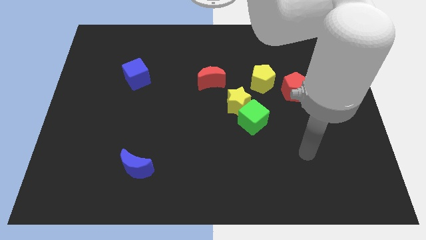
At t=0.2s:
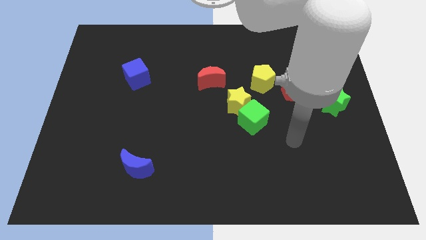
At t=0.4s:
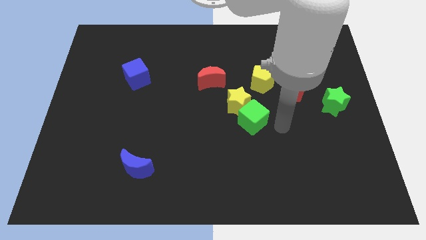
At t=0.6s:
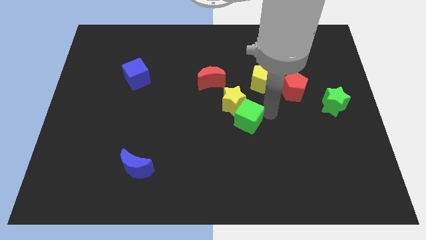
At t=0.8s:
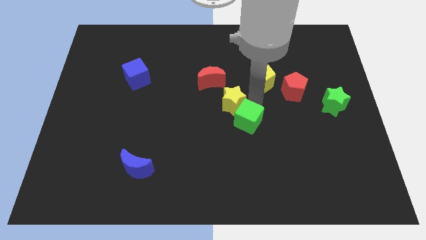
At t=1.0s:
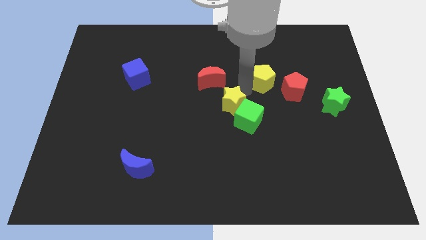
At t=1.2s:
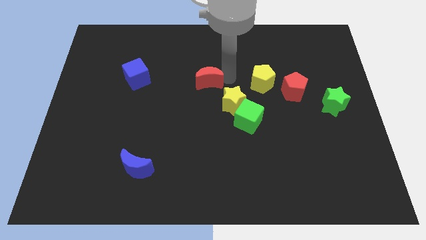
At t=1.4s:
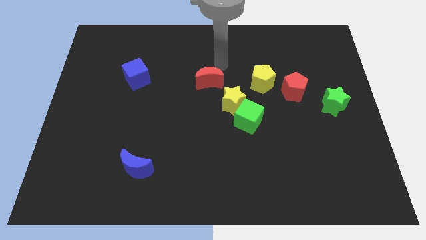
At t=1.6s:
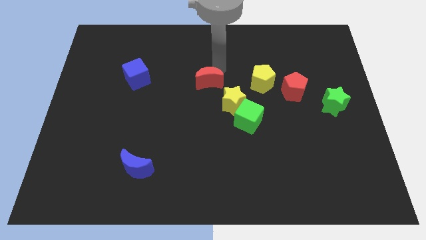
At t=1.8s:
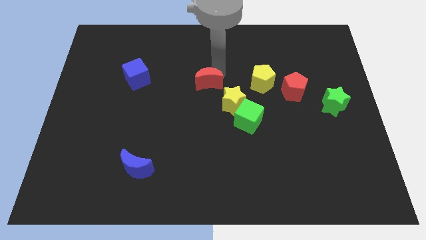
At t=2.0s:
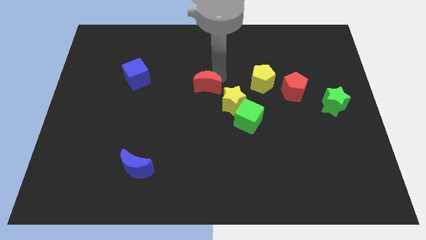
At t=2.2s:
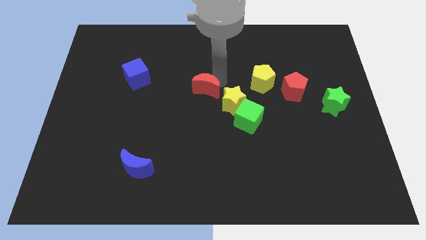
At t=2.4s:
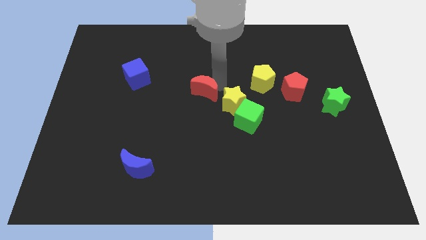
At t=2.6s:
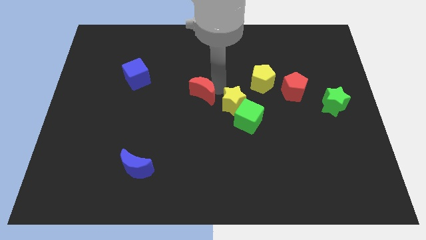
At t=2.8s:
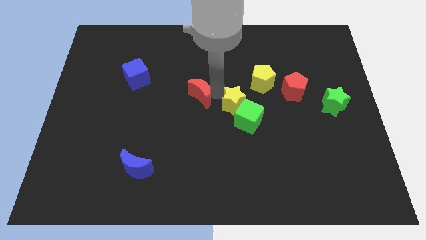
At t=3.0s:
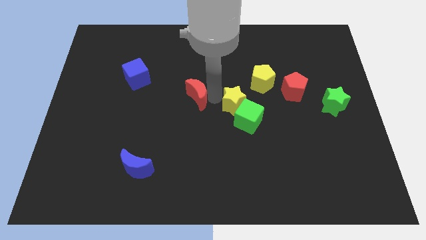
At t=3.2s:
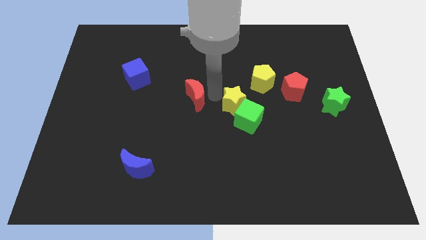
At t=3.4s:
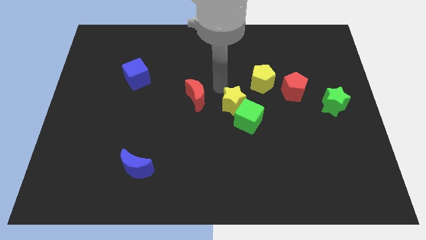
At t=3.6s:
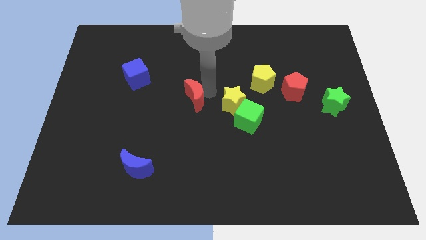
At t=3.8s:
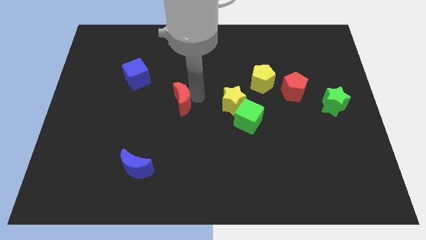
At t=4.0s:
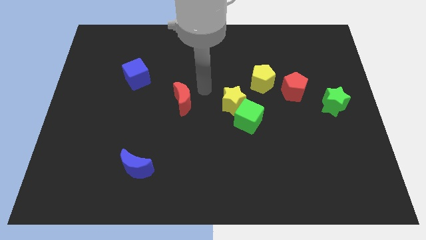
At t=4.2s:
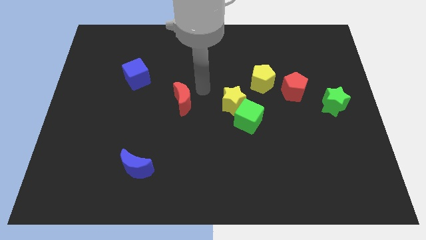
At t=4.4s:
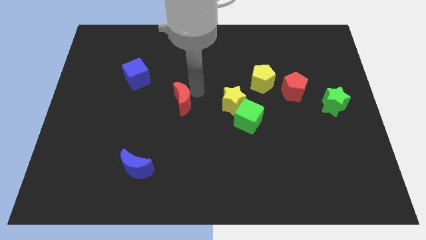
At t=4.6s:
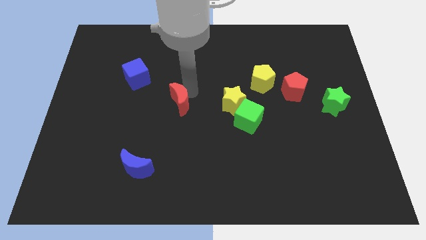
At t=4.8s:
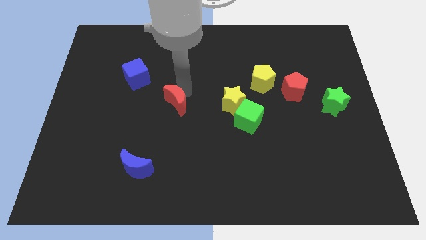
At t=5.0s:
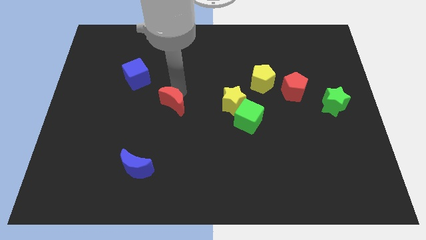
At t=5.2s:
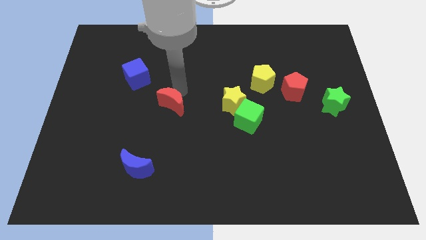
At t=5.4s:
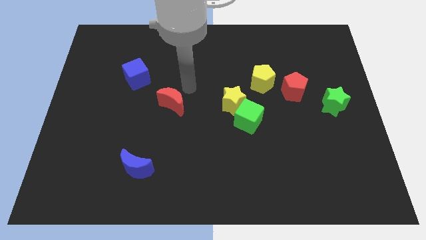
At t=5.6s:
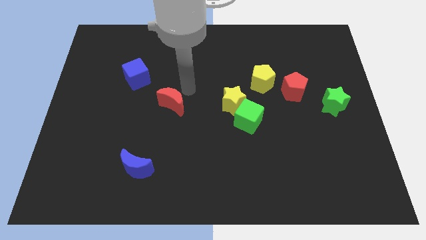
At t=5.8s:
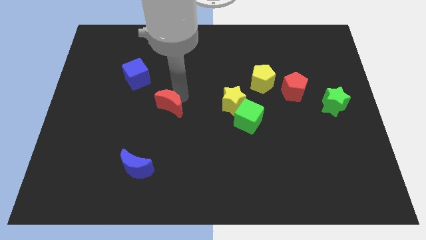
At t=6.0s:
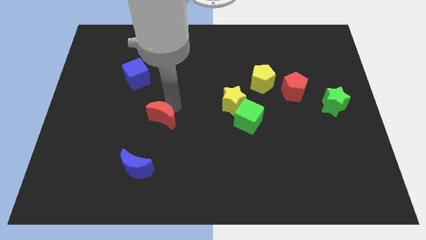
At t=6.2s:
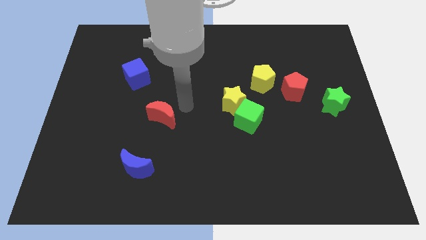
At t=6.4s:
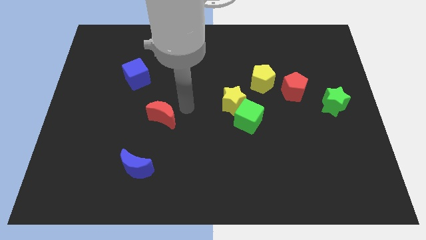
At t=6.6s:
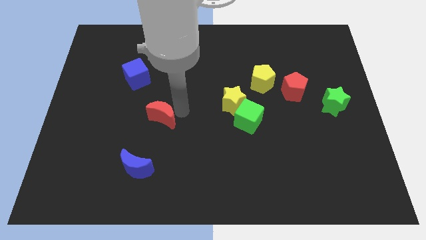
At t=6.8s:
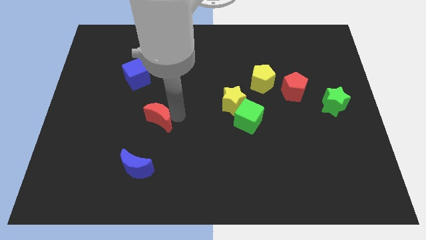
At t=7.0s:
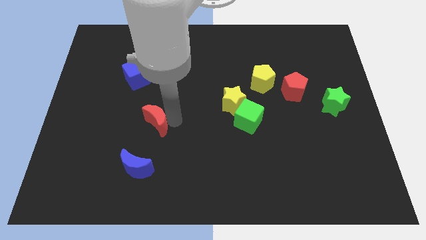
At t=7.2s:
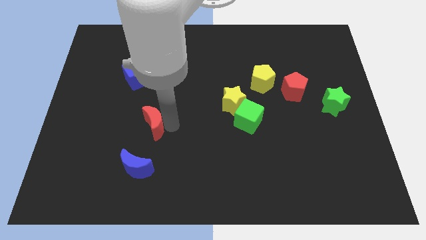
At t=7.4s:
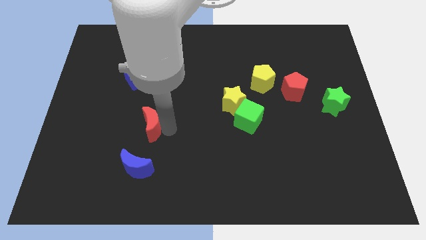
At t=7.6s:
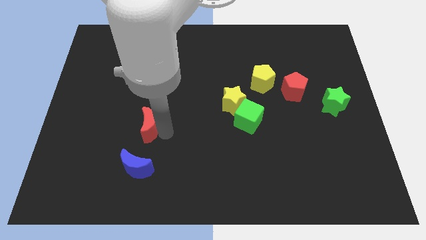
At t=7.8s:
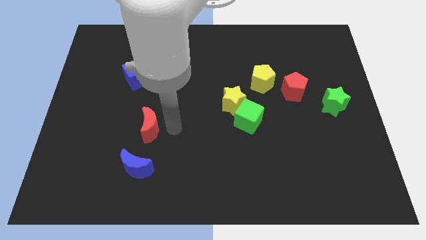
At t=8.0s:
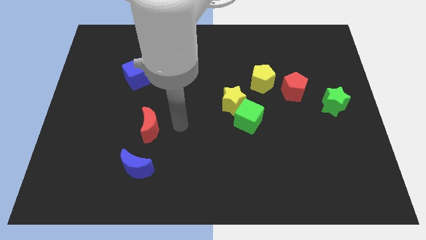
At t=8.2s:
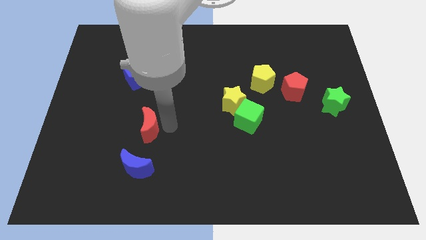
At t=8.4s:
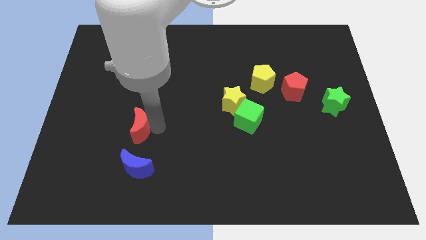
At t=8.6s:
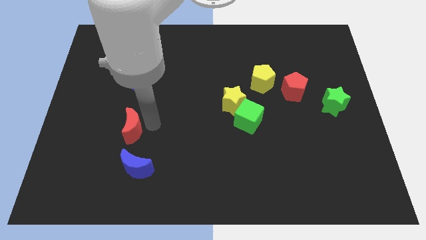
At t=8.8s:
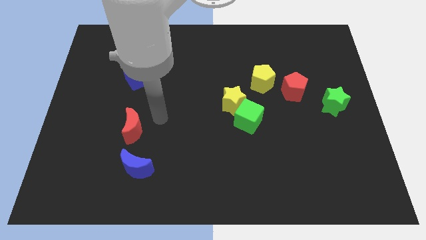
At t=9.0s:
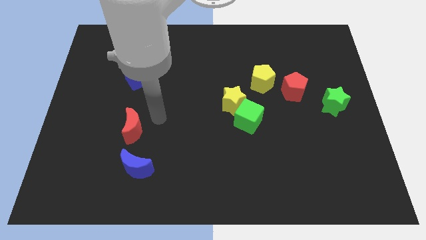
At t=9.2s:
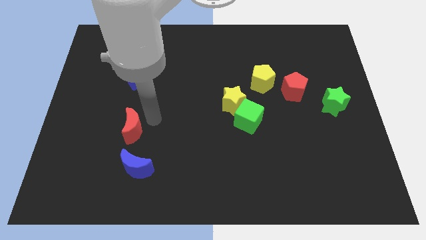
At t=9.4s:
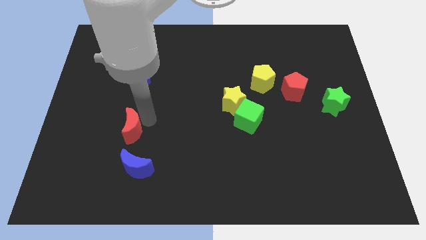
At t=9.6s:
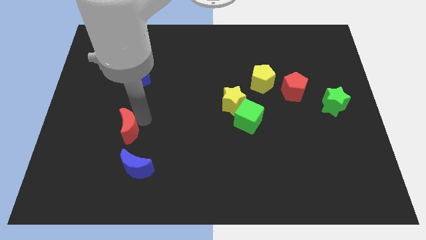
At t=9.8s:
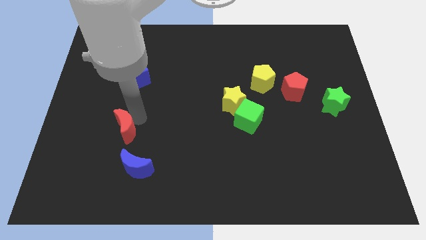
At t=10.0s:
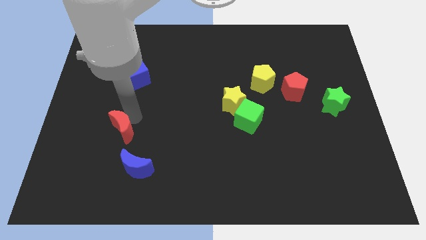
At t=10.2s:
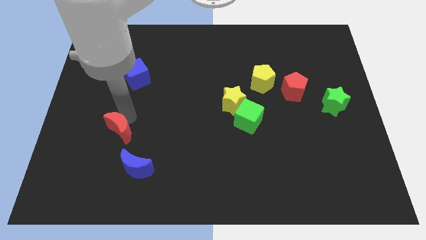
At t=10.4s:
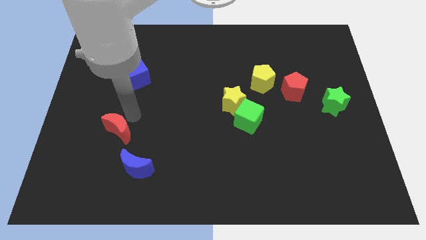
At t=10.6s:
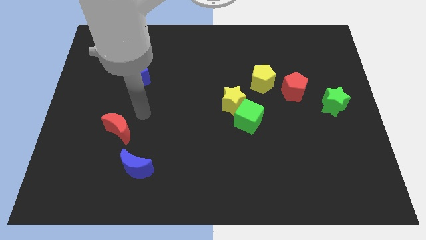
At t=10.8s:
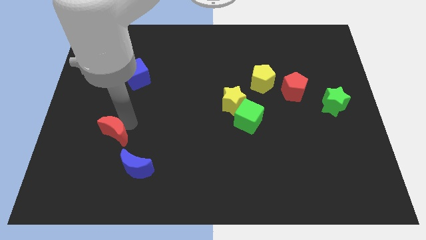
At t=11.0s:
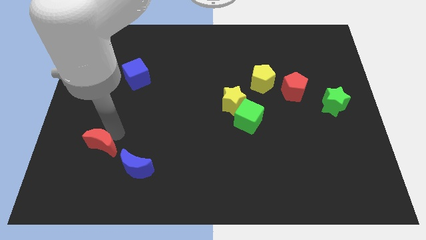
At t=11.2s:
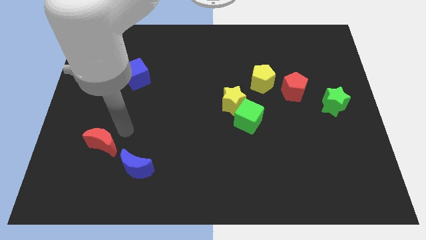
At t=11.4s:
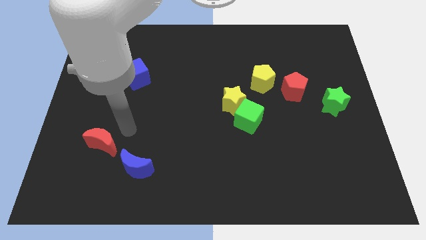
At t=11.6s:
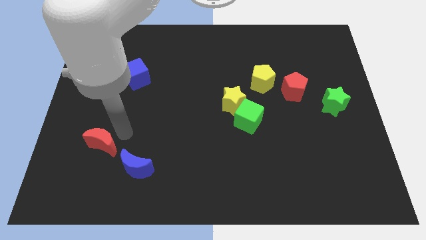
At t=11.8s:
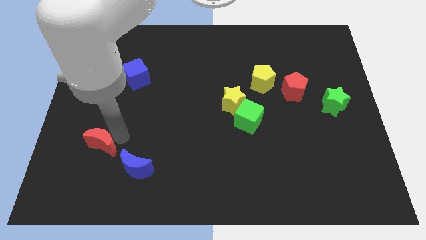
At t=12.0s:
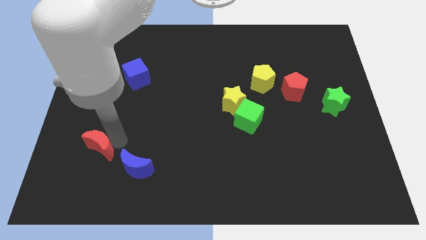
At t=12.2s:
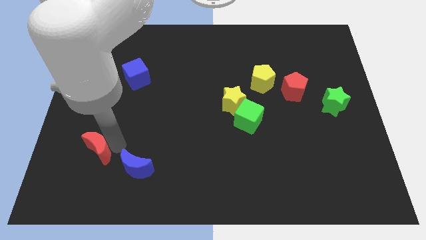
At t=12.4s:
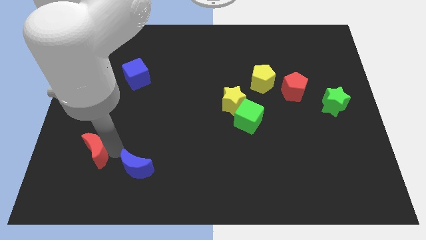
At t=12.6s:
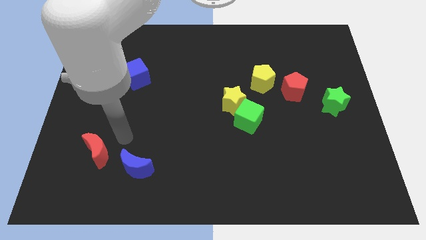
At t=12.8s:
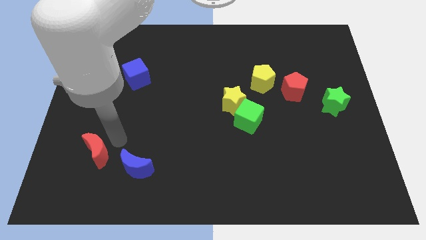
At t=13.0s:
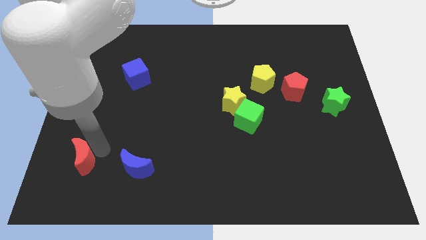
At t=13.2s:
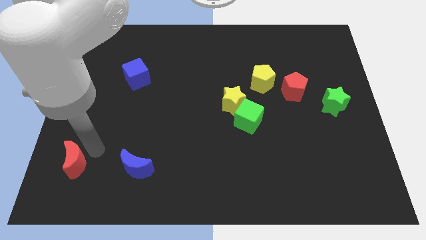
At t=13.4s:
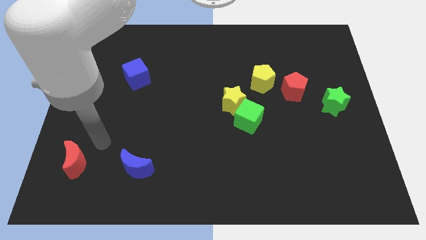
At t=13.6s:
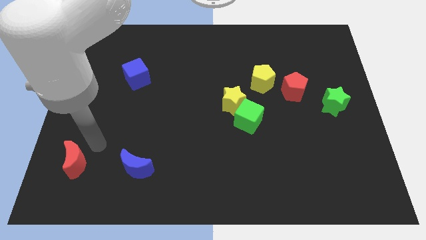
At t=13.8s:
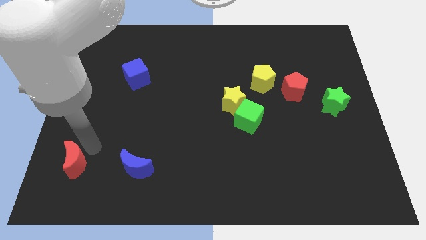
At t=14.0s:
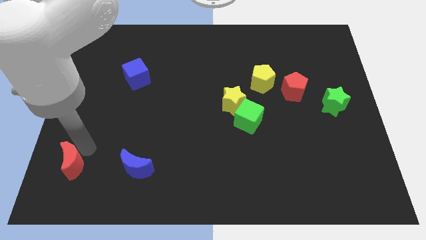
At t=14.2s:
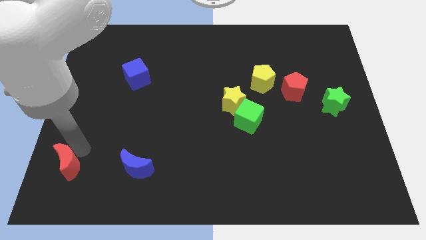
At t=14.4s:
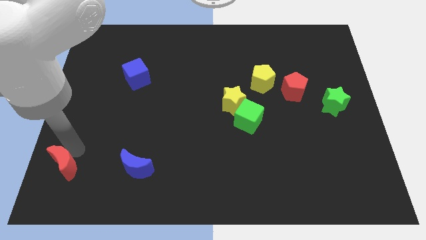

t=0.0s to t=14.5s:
slide the red moon to the lower left corner

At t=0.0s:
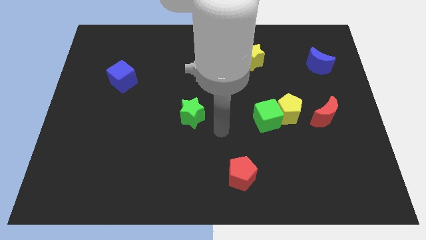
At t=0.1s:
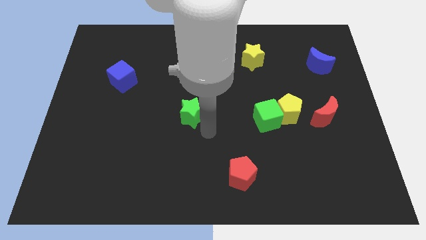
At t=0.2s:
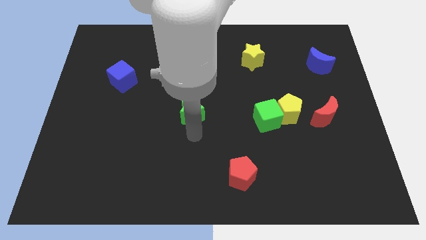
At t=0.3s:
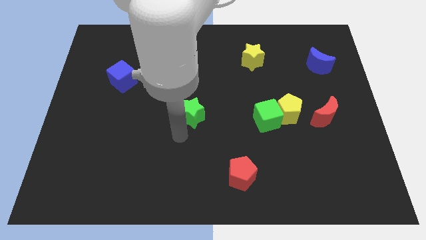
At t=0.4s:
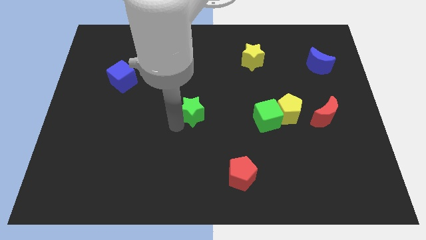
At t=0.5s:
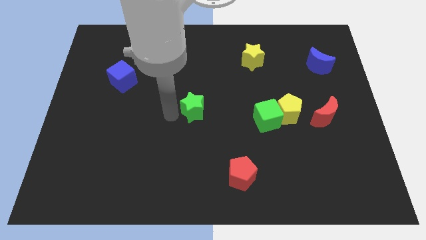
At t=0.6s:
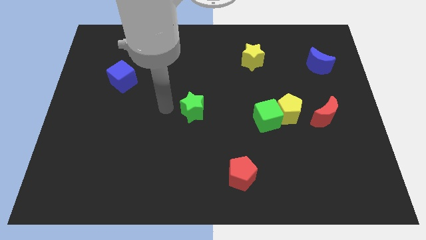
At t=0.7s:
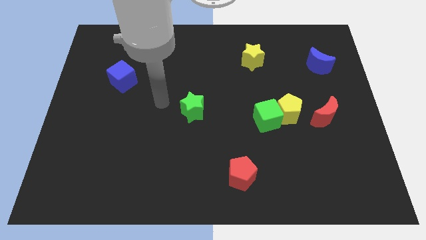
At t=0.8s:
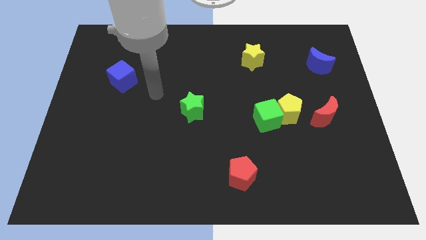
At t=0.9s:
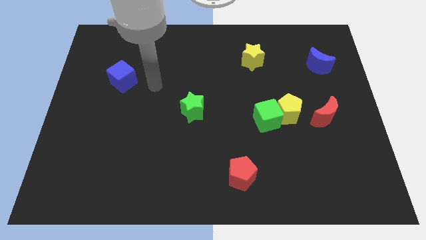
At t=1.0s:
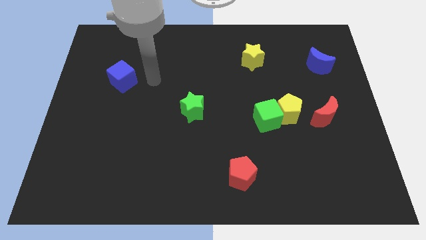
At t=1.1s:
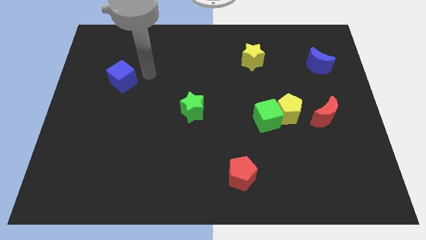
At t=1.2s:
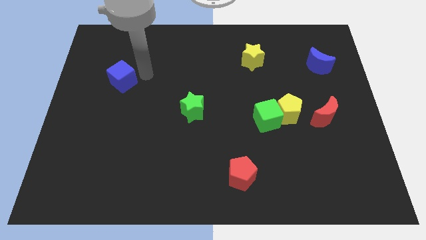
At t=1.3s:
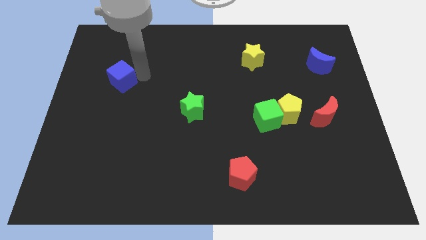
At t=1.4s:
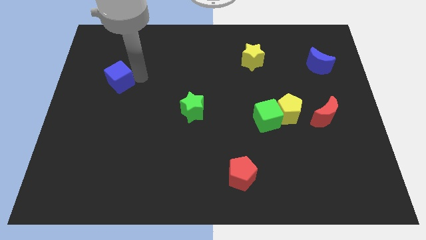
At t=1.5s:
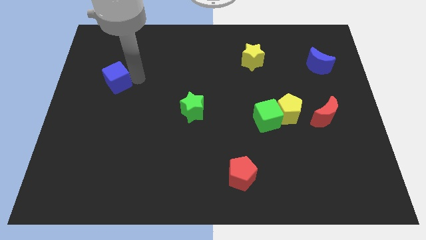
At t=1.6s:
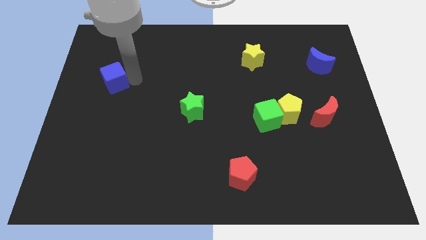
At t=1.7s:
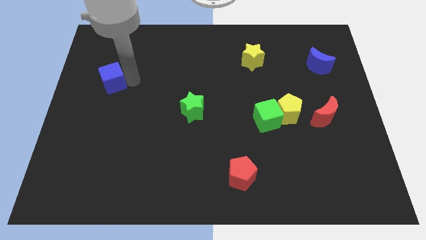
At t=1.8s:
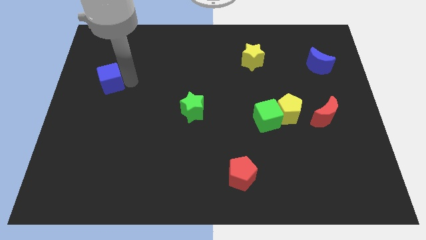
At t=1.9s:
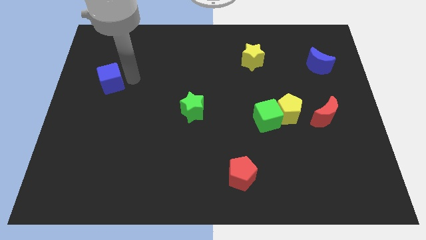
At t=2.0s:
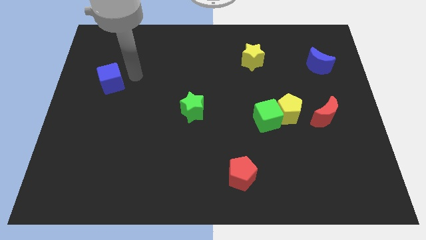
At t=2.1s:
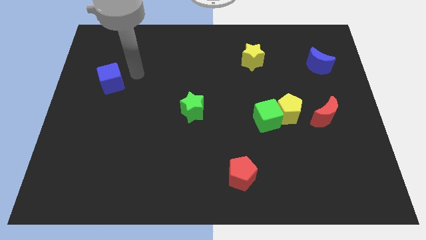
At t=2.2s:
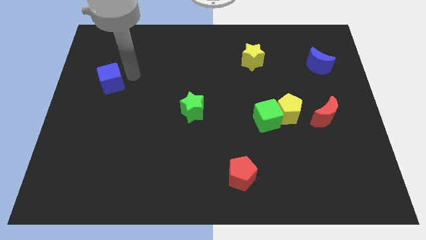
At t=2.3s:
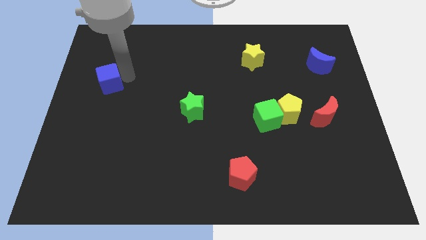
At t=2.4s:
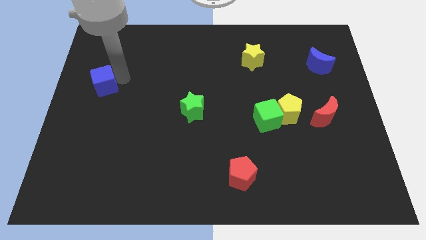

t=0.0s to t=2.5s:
move the blue cube to the center left
